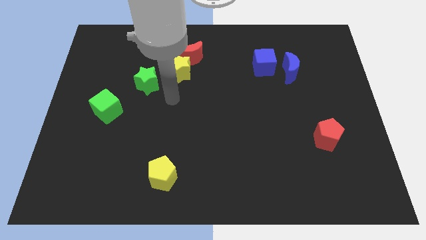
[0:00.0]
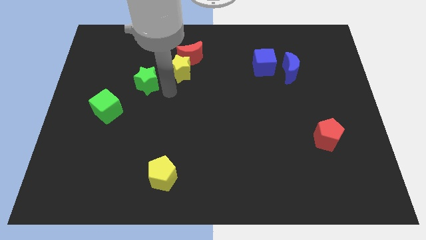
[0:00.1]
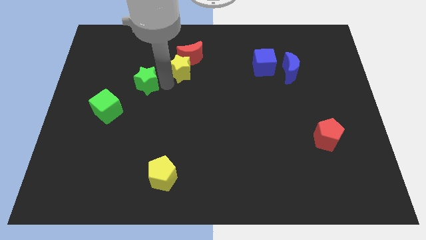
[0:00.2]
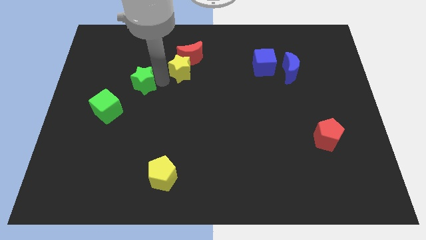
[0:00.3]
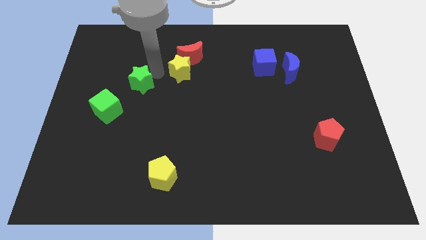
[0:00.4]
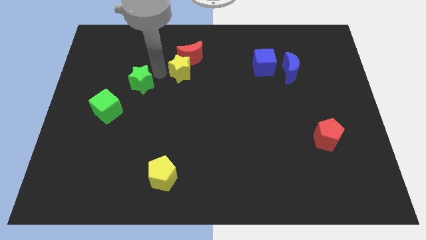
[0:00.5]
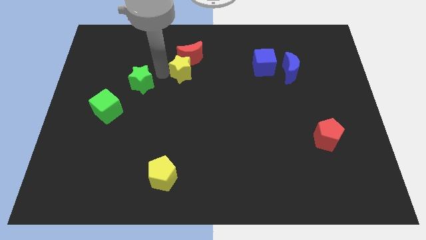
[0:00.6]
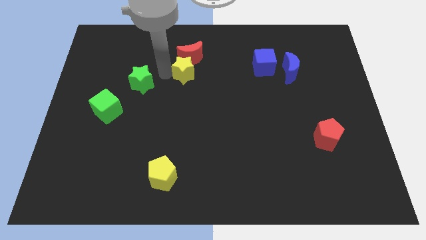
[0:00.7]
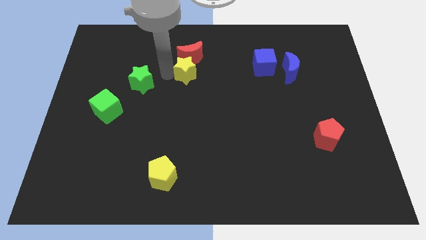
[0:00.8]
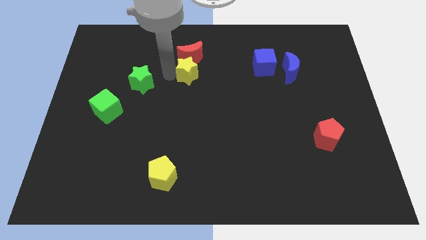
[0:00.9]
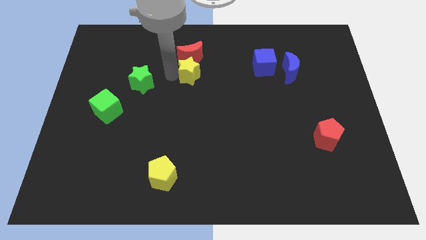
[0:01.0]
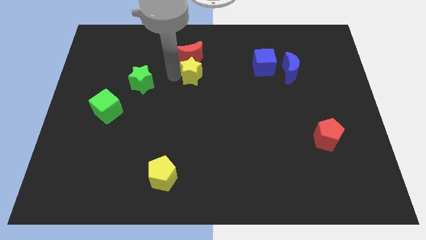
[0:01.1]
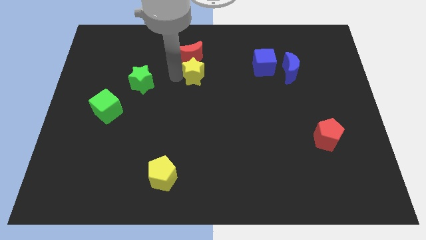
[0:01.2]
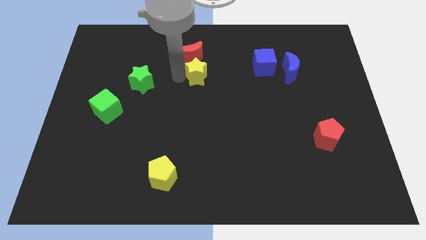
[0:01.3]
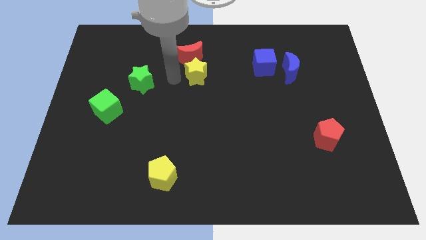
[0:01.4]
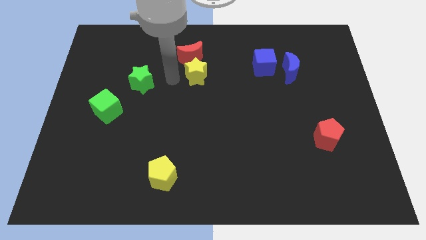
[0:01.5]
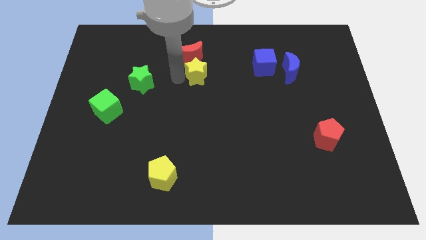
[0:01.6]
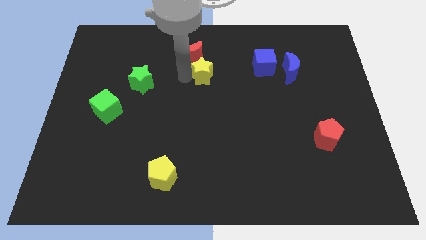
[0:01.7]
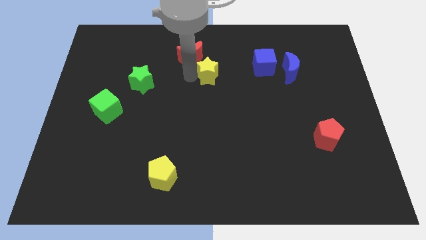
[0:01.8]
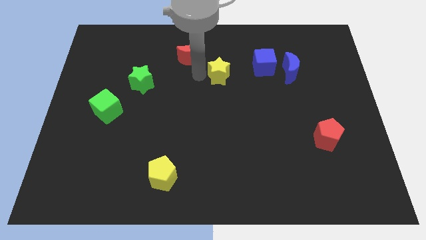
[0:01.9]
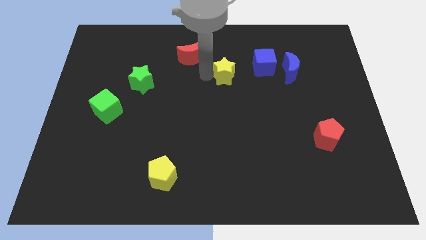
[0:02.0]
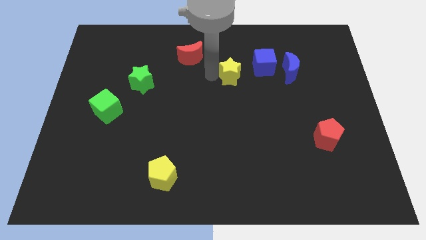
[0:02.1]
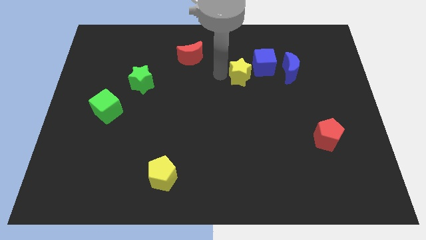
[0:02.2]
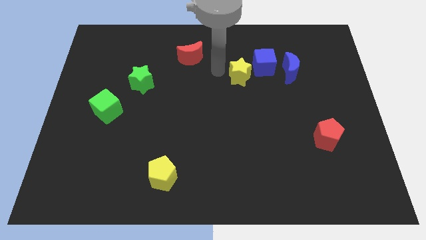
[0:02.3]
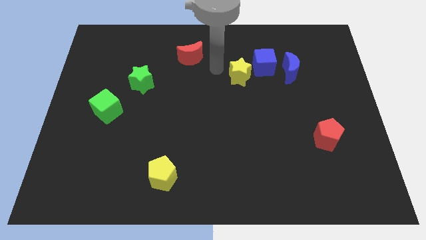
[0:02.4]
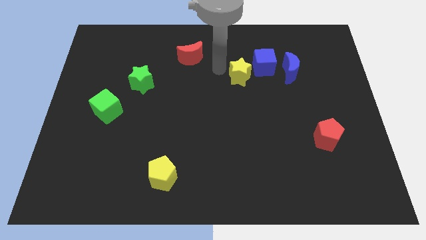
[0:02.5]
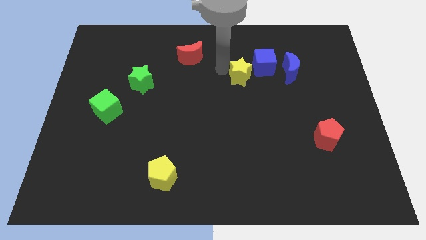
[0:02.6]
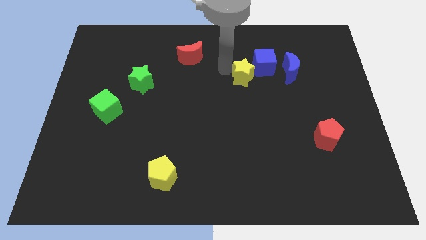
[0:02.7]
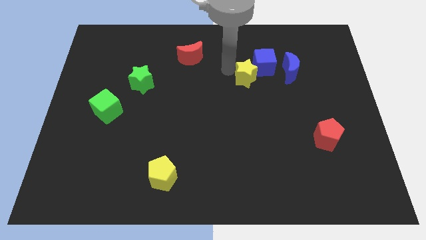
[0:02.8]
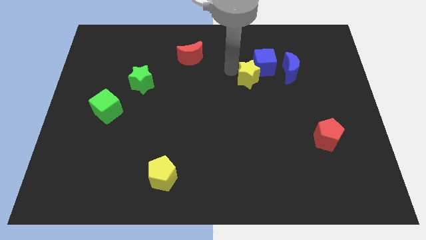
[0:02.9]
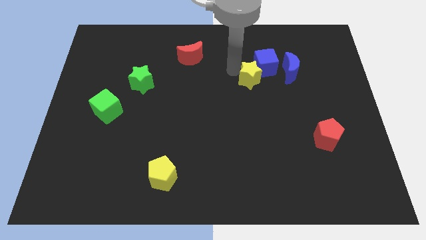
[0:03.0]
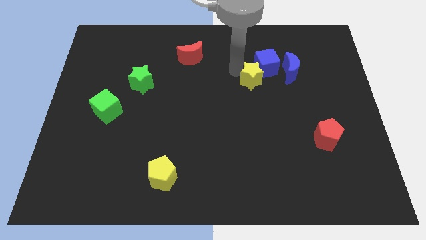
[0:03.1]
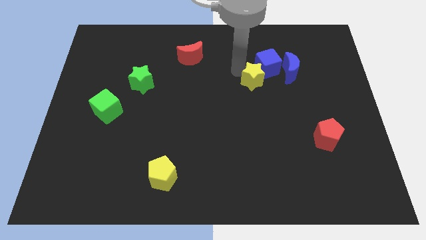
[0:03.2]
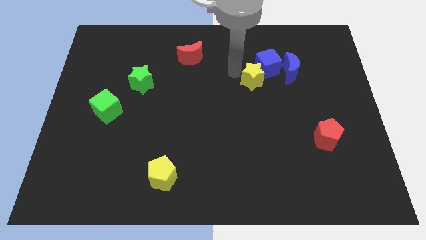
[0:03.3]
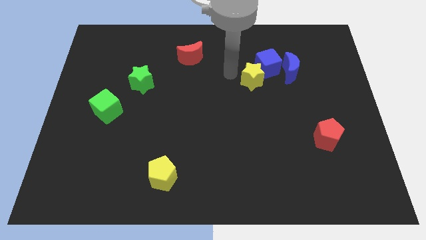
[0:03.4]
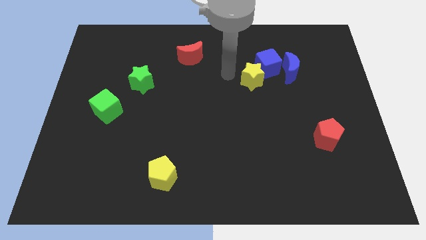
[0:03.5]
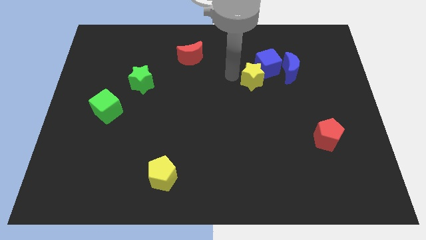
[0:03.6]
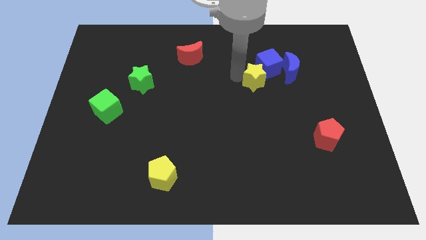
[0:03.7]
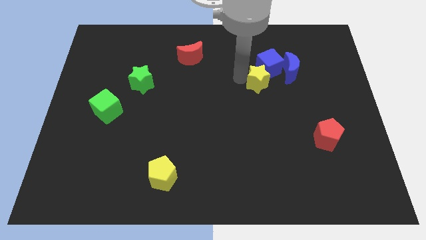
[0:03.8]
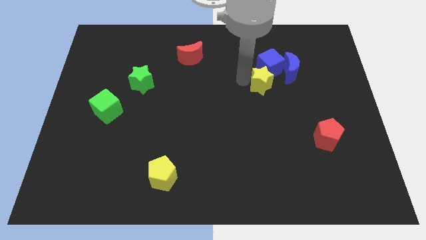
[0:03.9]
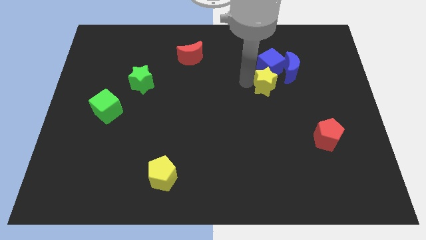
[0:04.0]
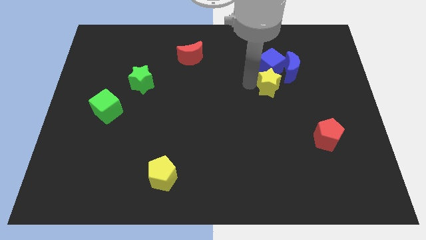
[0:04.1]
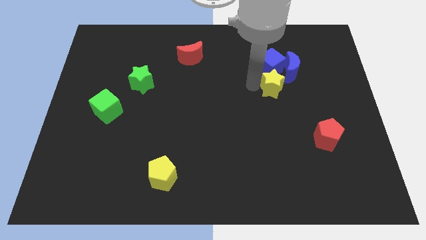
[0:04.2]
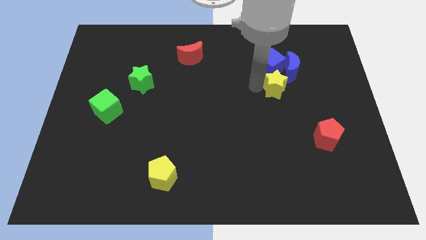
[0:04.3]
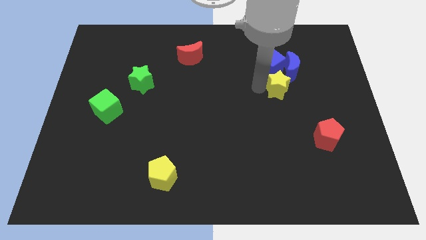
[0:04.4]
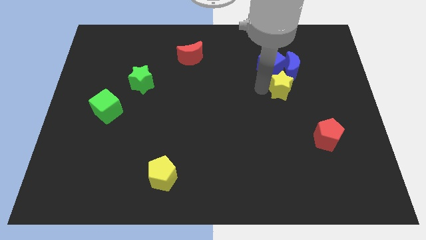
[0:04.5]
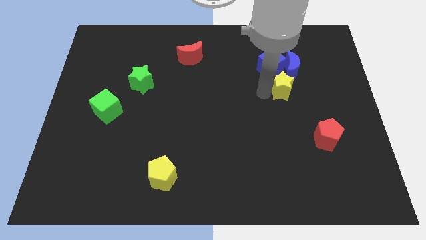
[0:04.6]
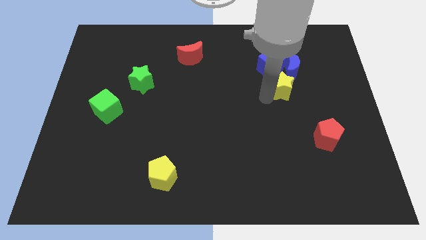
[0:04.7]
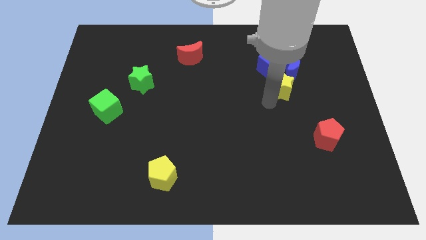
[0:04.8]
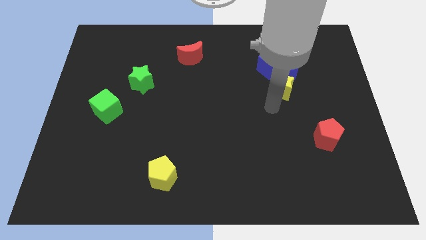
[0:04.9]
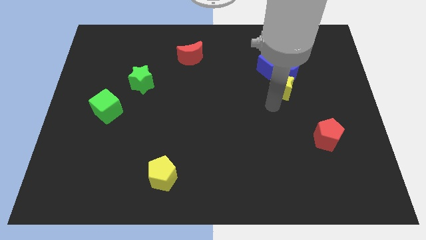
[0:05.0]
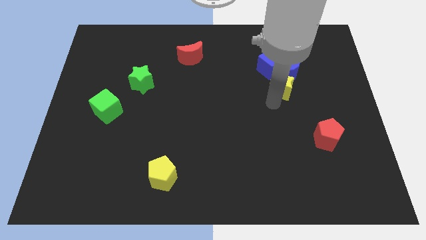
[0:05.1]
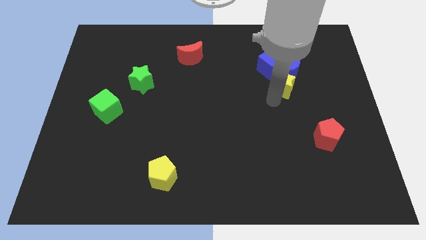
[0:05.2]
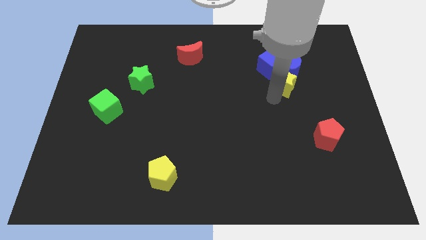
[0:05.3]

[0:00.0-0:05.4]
move the yellow star next to the blue moon

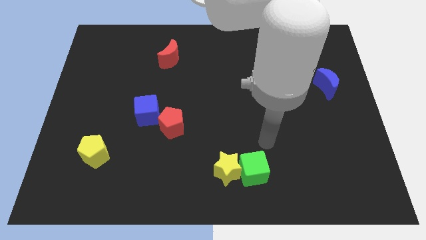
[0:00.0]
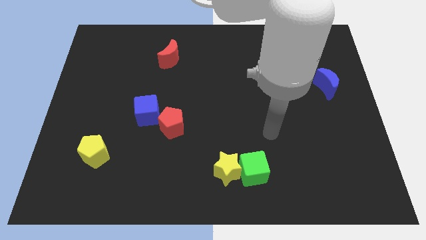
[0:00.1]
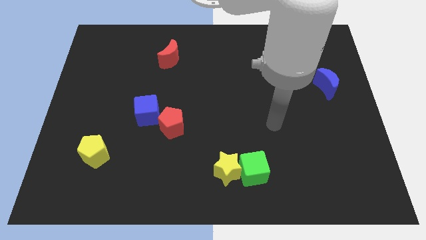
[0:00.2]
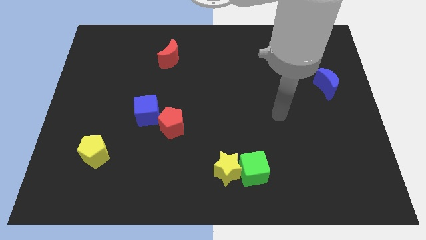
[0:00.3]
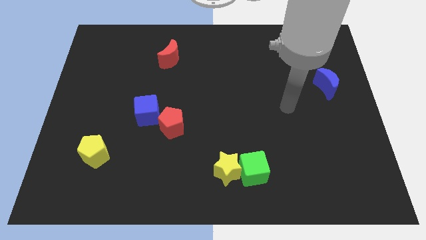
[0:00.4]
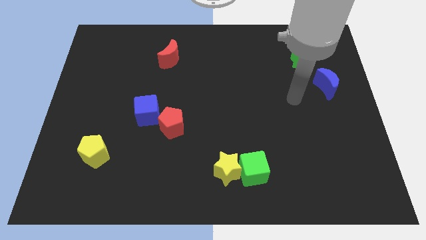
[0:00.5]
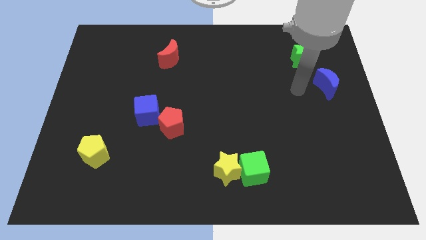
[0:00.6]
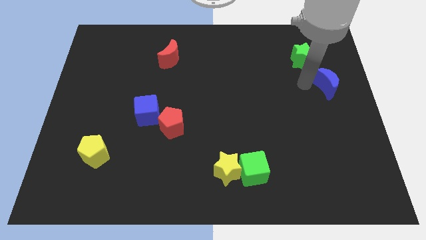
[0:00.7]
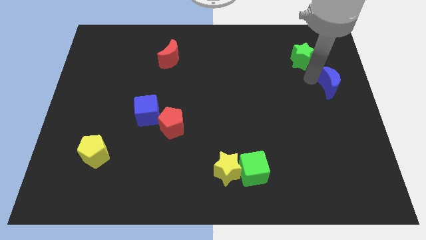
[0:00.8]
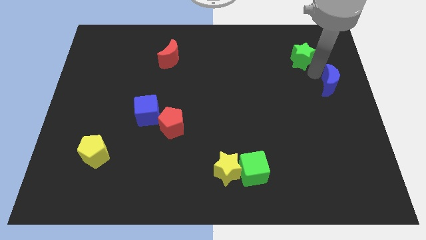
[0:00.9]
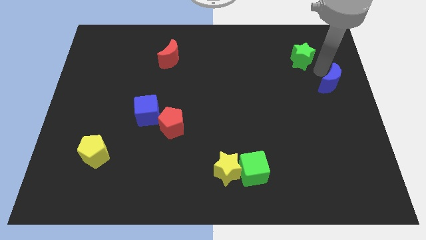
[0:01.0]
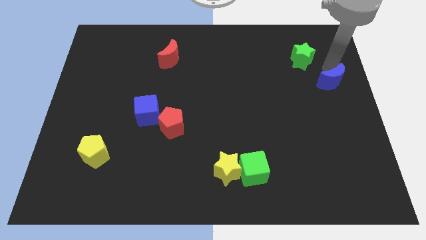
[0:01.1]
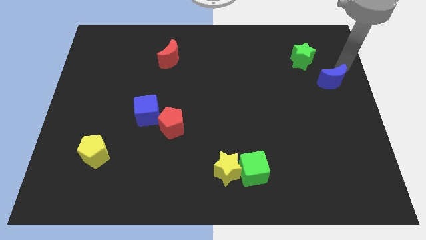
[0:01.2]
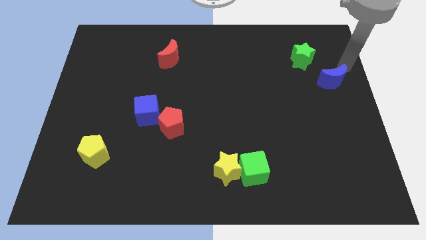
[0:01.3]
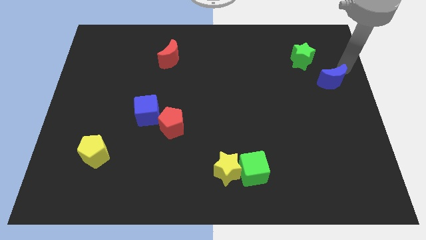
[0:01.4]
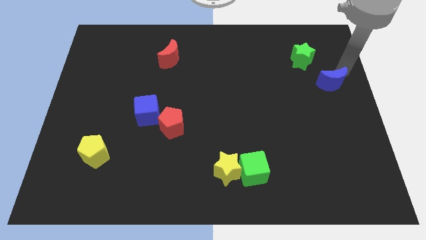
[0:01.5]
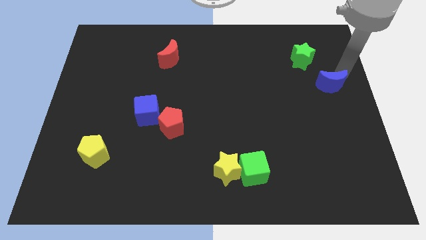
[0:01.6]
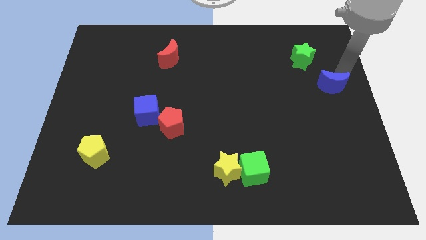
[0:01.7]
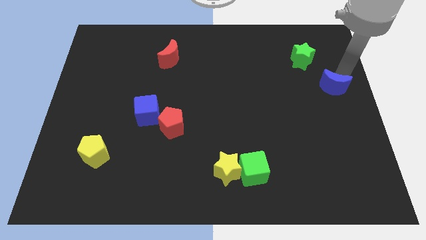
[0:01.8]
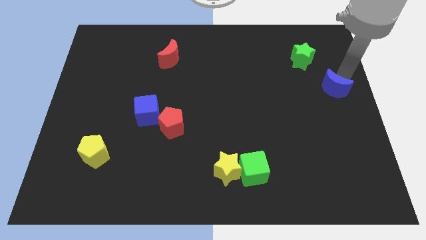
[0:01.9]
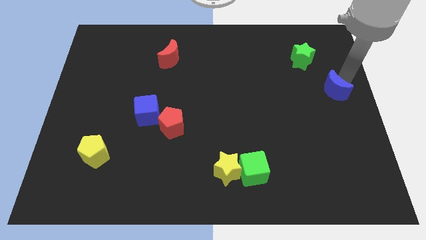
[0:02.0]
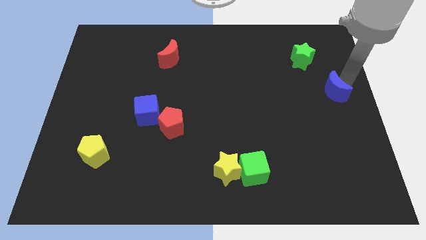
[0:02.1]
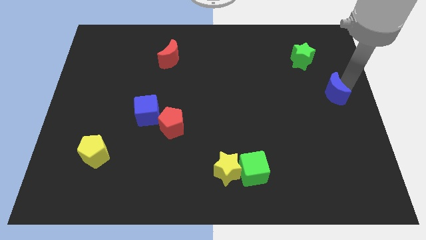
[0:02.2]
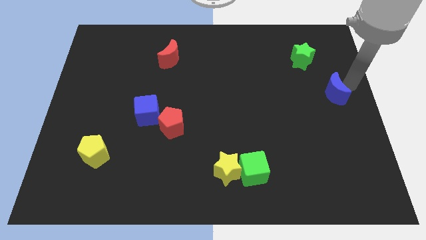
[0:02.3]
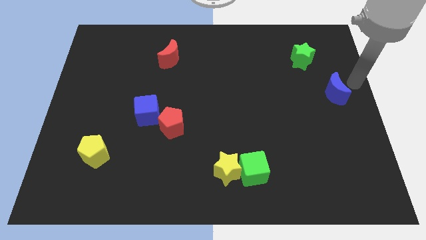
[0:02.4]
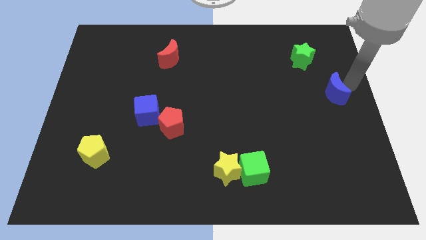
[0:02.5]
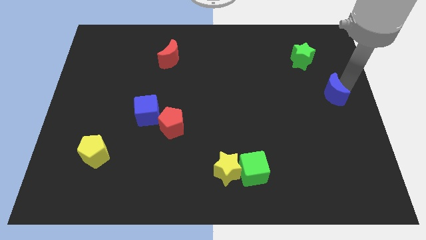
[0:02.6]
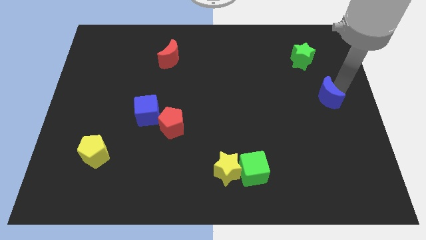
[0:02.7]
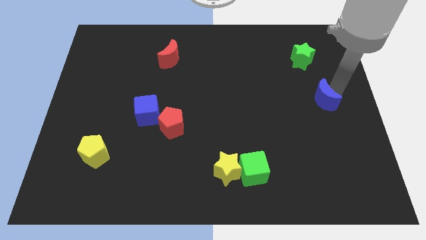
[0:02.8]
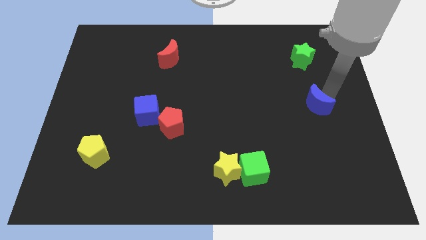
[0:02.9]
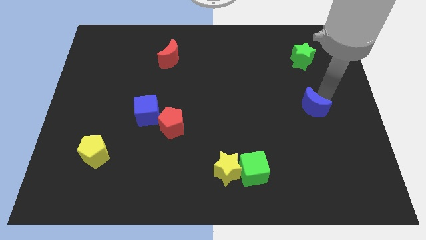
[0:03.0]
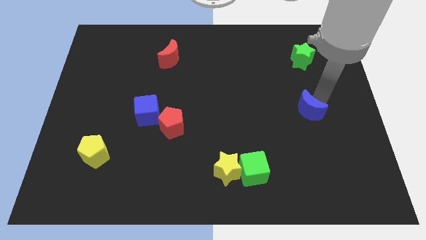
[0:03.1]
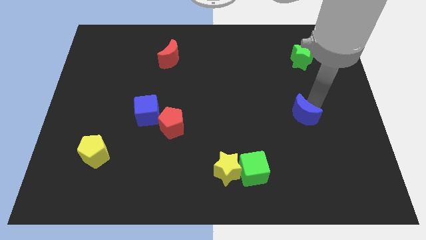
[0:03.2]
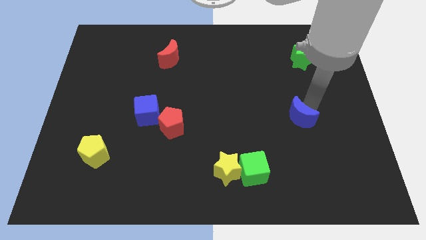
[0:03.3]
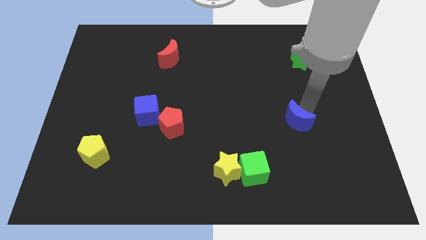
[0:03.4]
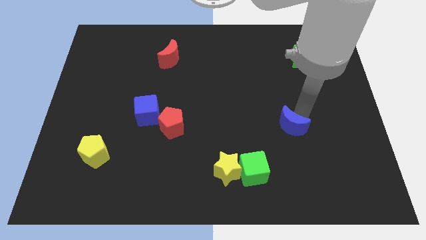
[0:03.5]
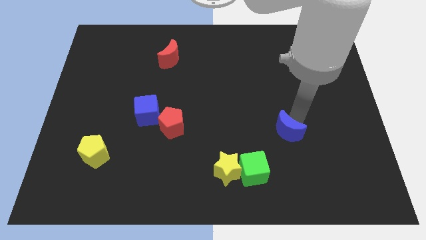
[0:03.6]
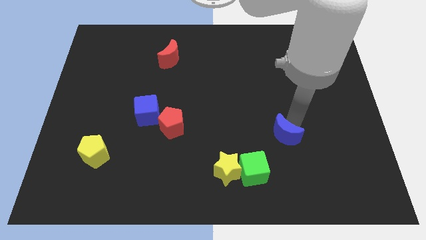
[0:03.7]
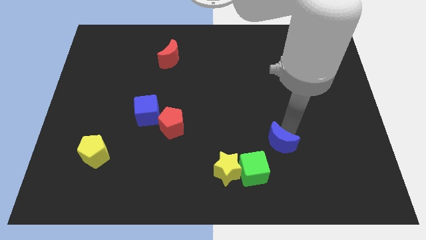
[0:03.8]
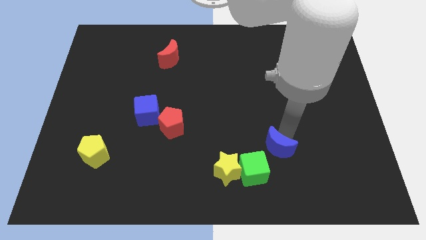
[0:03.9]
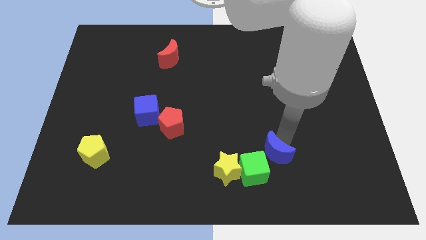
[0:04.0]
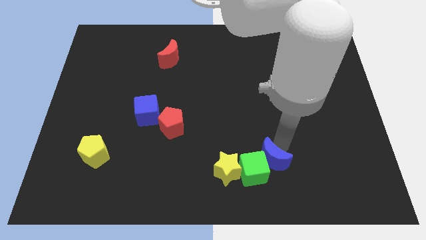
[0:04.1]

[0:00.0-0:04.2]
push the blue moon close to the green cube
